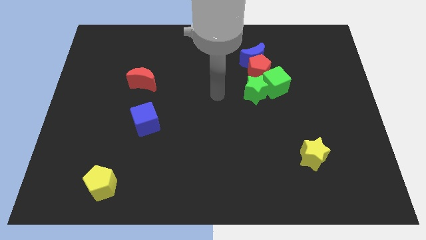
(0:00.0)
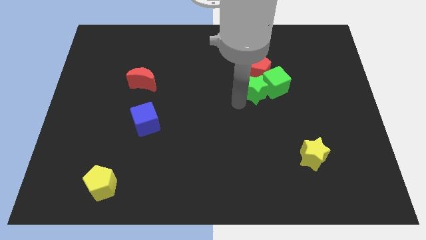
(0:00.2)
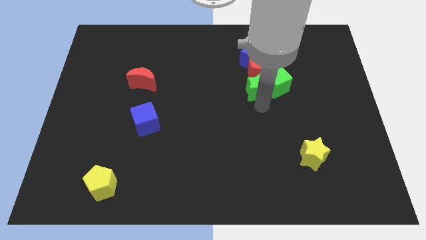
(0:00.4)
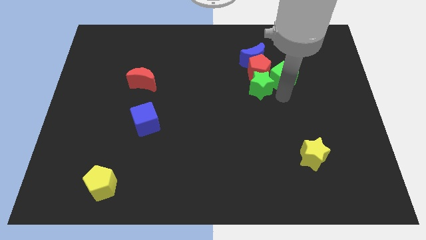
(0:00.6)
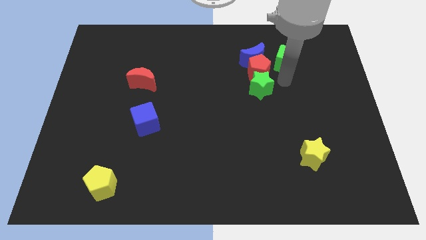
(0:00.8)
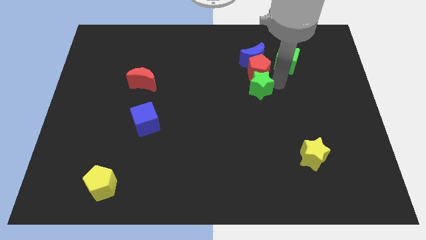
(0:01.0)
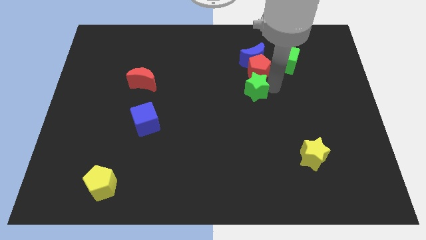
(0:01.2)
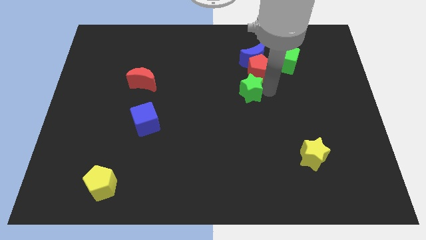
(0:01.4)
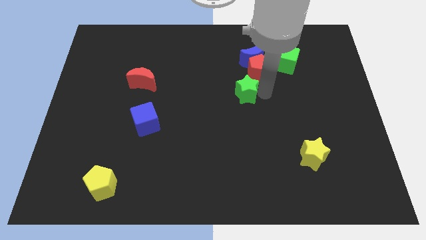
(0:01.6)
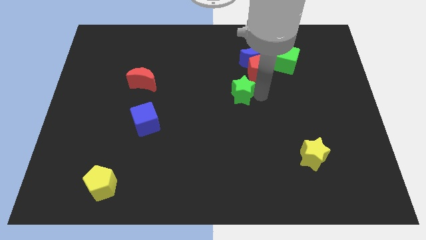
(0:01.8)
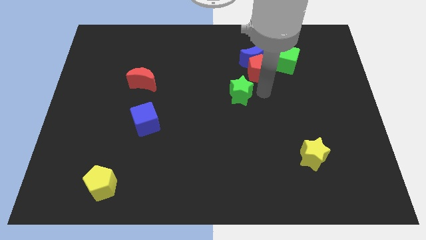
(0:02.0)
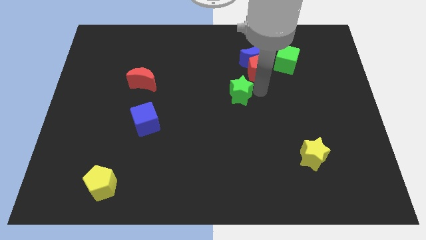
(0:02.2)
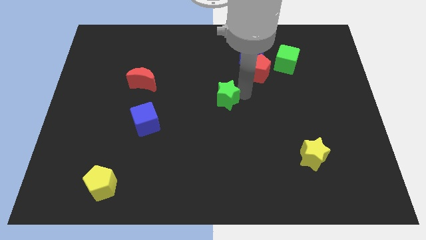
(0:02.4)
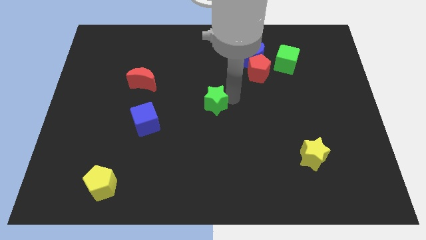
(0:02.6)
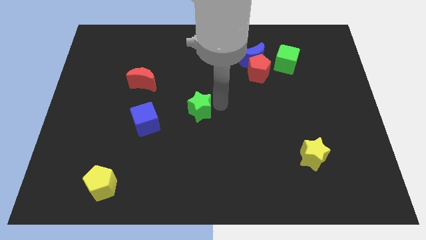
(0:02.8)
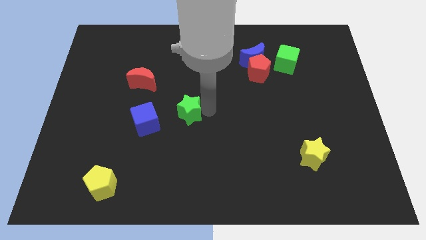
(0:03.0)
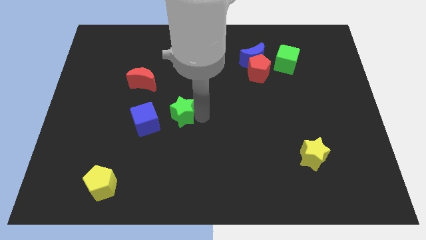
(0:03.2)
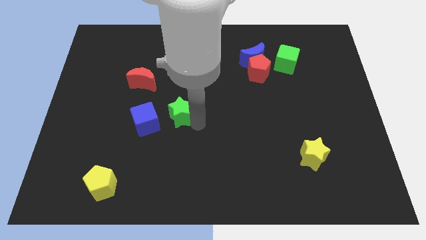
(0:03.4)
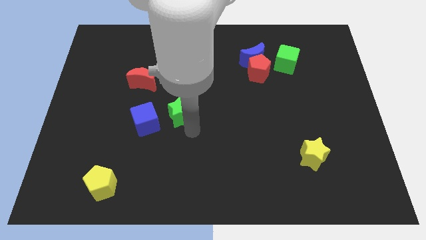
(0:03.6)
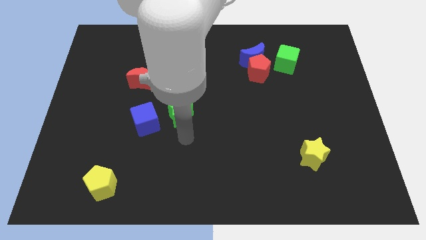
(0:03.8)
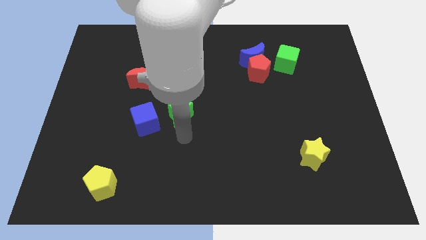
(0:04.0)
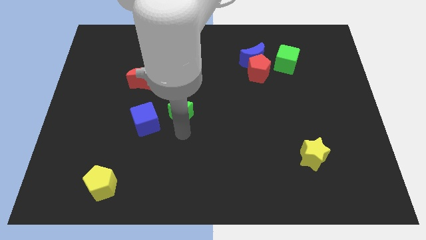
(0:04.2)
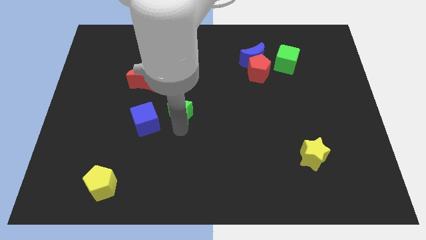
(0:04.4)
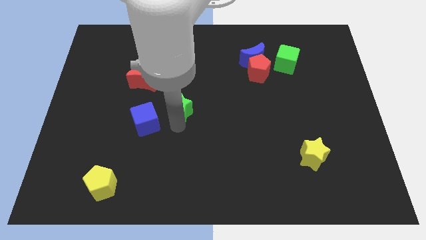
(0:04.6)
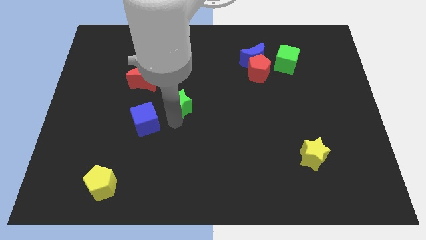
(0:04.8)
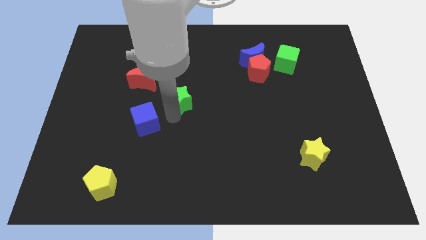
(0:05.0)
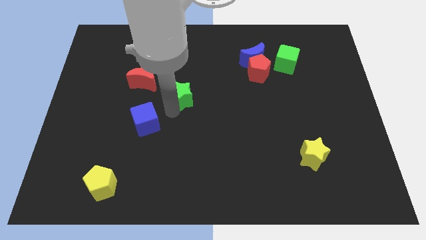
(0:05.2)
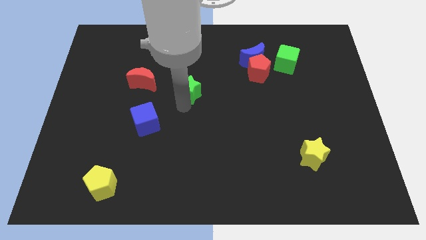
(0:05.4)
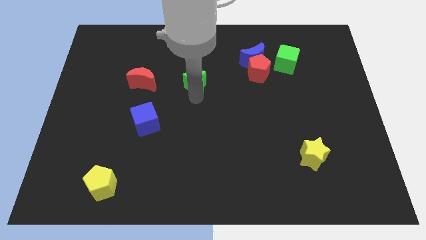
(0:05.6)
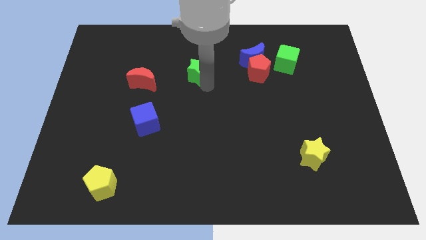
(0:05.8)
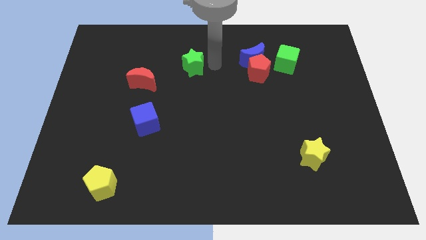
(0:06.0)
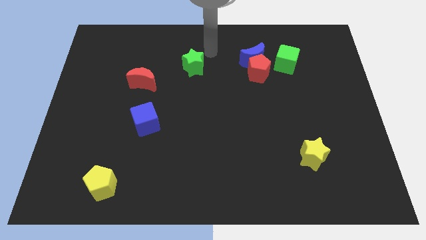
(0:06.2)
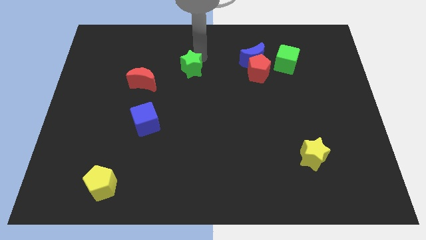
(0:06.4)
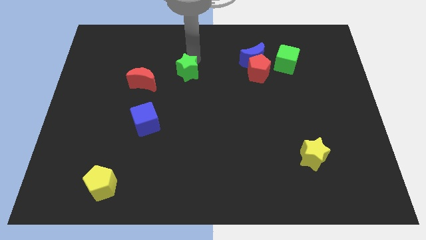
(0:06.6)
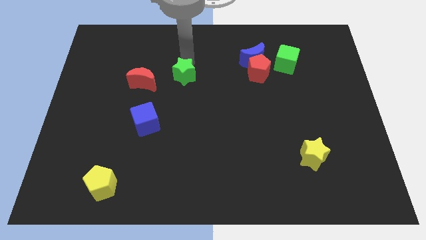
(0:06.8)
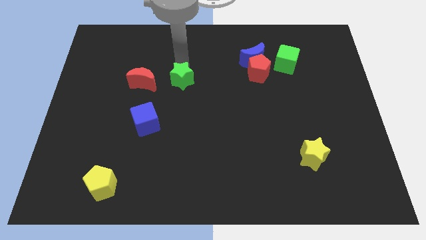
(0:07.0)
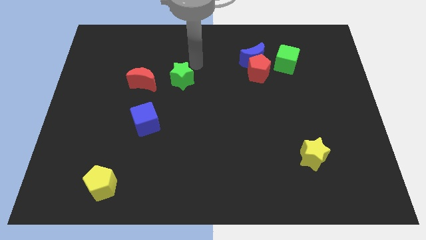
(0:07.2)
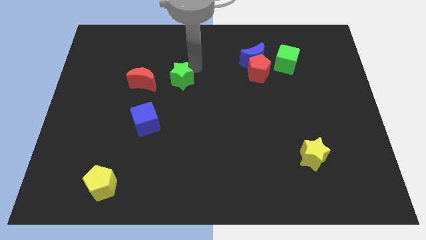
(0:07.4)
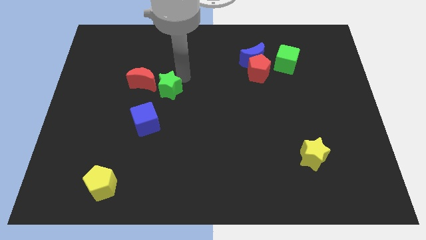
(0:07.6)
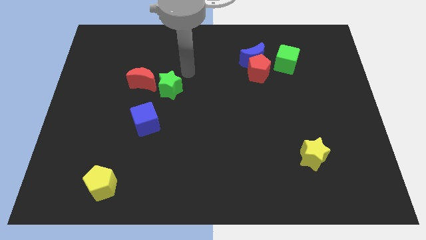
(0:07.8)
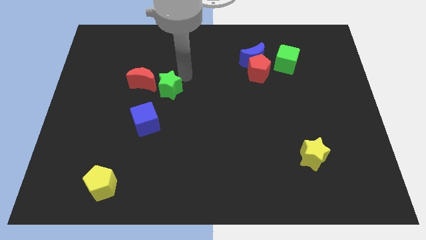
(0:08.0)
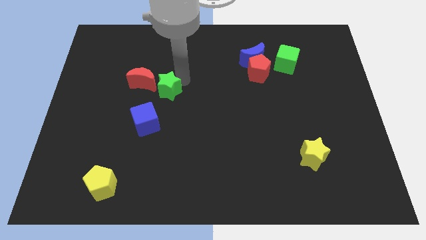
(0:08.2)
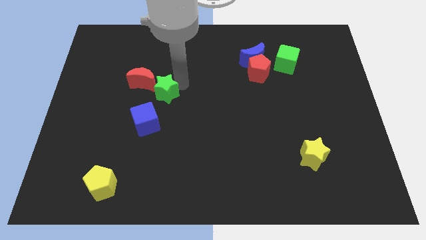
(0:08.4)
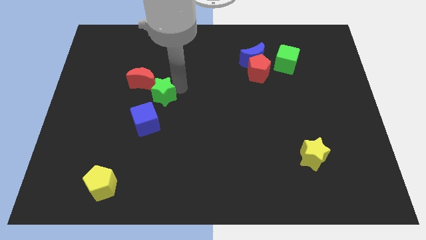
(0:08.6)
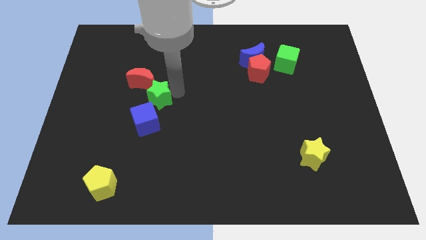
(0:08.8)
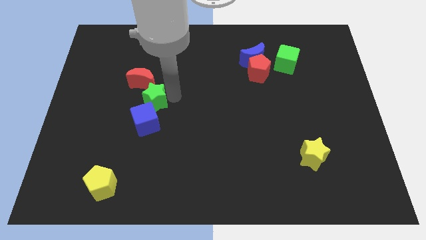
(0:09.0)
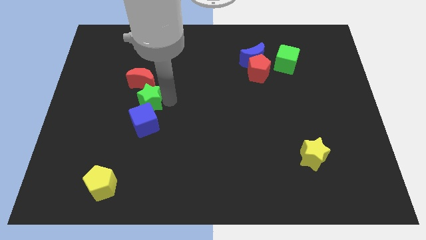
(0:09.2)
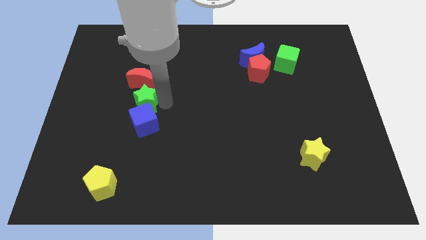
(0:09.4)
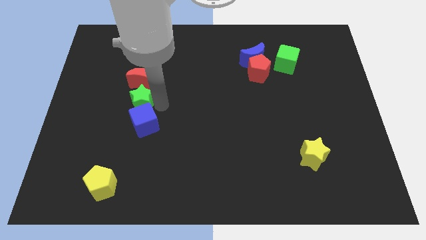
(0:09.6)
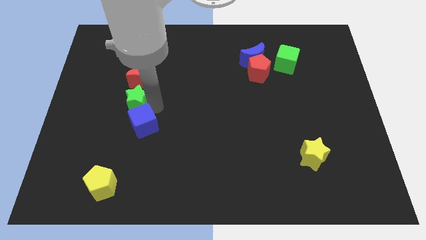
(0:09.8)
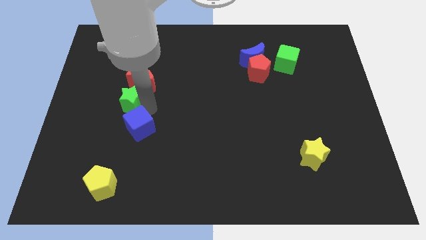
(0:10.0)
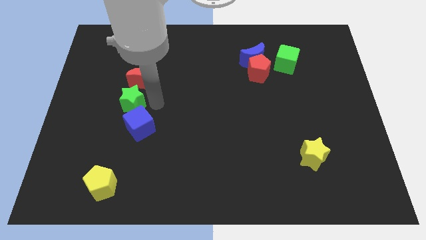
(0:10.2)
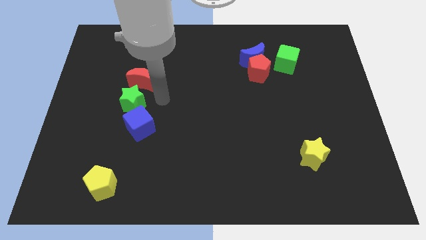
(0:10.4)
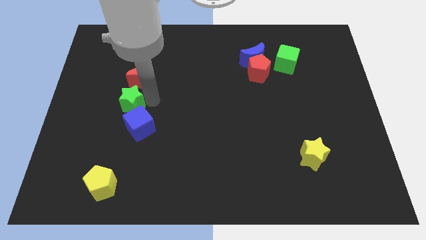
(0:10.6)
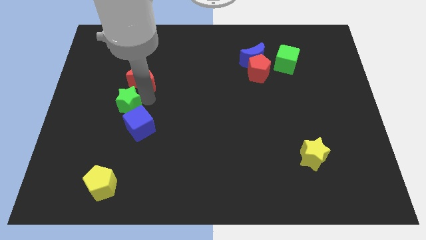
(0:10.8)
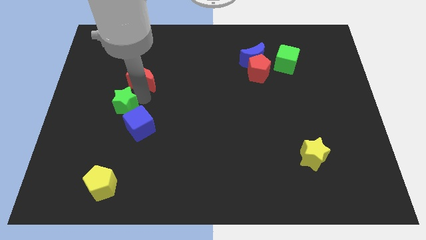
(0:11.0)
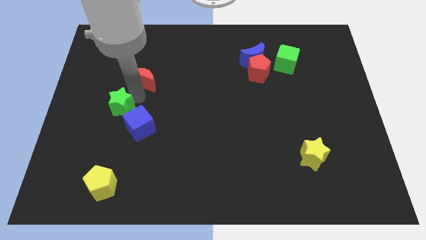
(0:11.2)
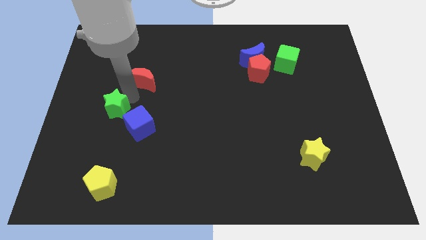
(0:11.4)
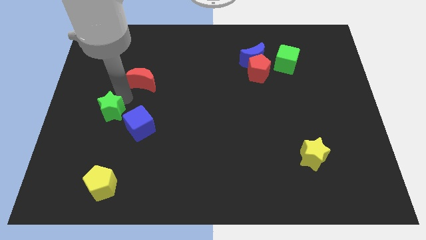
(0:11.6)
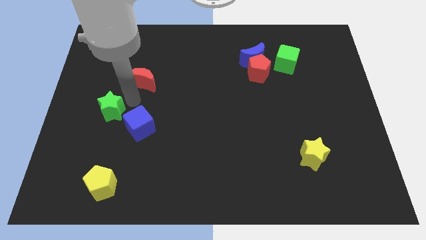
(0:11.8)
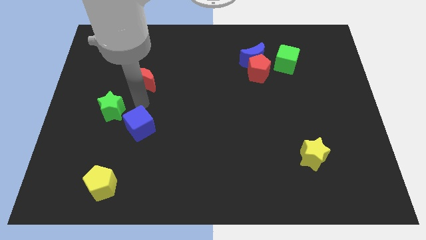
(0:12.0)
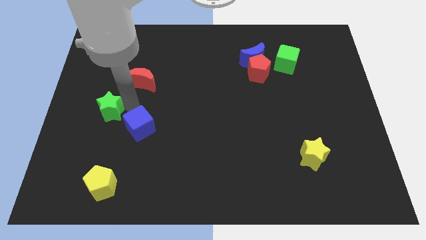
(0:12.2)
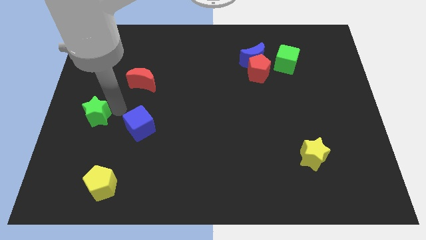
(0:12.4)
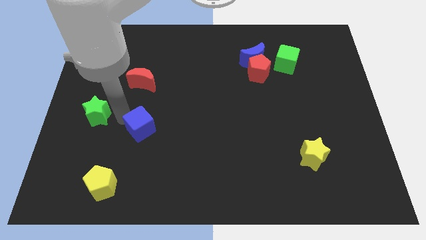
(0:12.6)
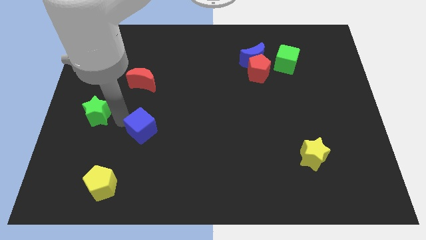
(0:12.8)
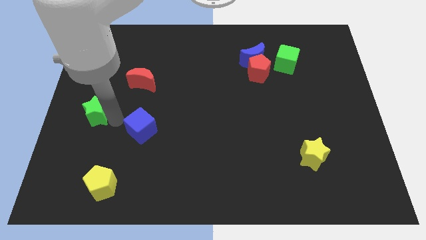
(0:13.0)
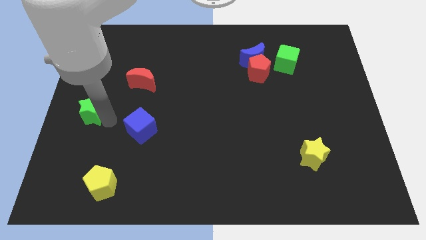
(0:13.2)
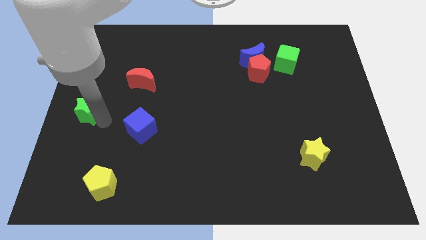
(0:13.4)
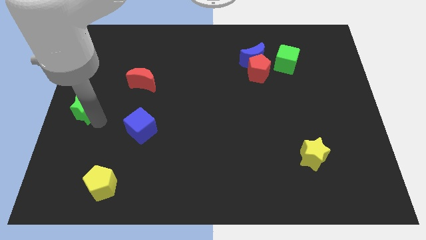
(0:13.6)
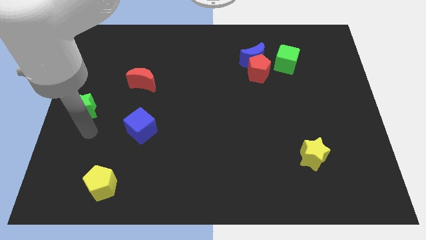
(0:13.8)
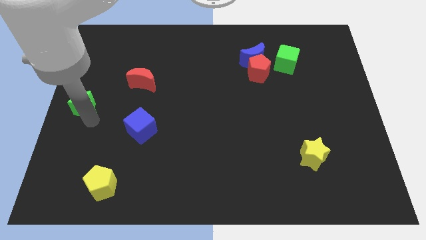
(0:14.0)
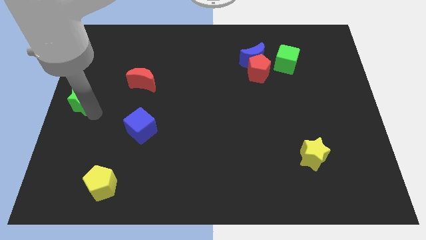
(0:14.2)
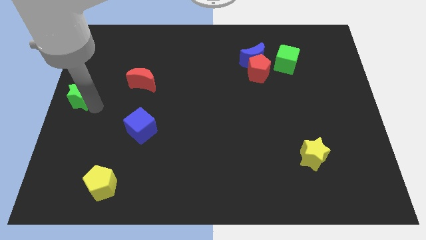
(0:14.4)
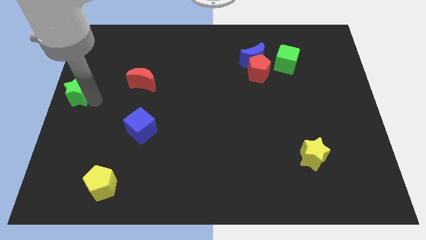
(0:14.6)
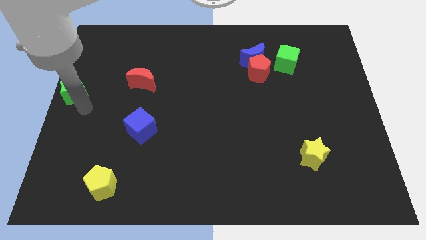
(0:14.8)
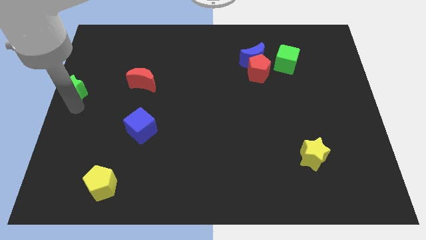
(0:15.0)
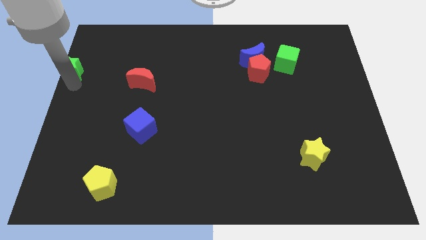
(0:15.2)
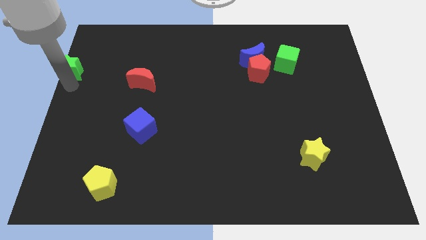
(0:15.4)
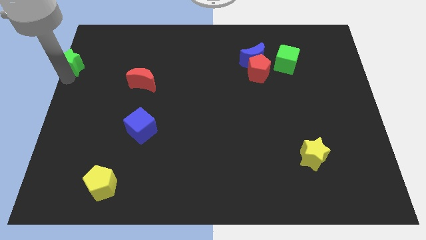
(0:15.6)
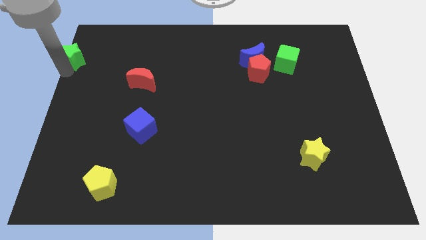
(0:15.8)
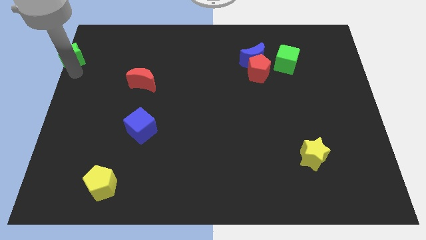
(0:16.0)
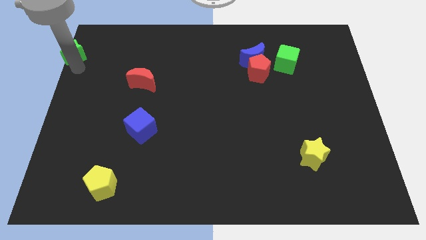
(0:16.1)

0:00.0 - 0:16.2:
slide the green star to the top left corner
